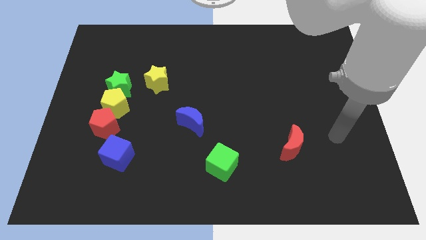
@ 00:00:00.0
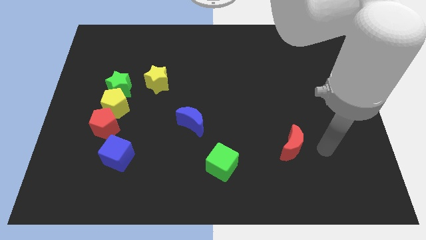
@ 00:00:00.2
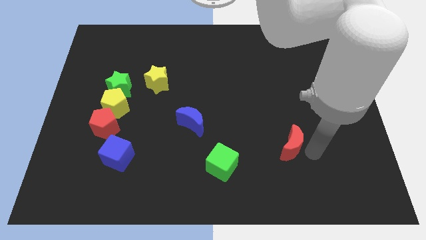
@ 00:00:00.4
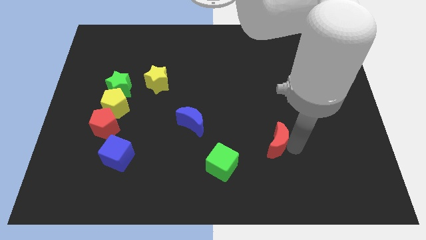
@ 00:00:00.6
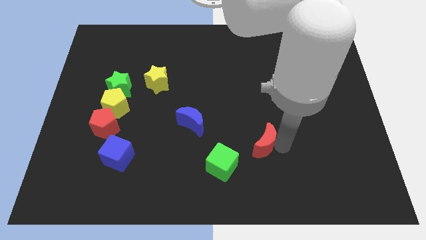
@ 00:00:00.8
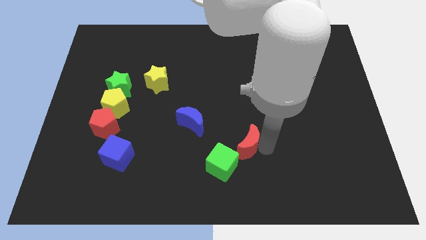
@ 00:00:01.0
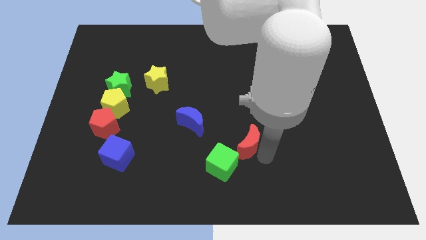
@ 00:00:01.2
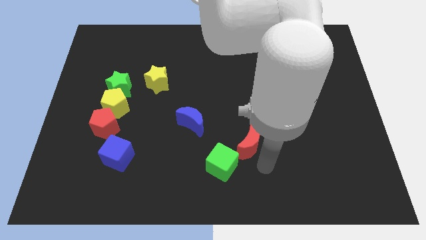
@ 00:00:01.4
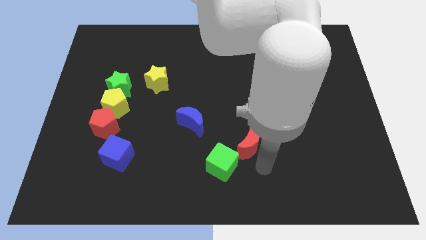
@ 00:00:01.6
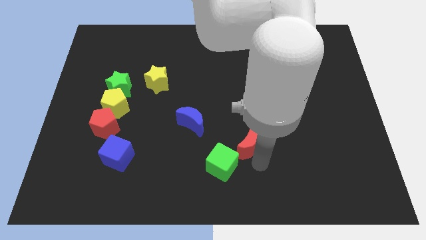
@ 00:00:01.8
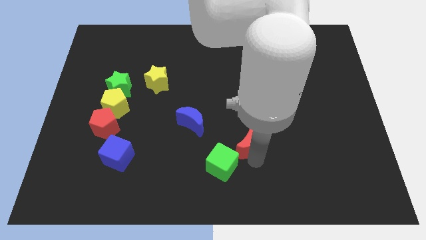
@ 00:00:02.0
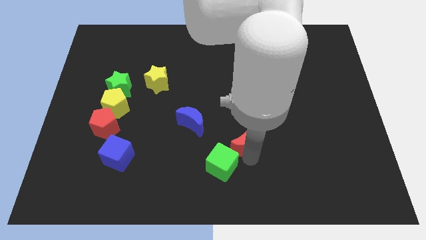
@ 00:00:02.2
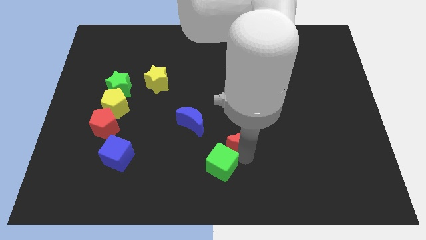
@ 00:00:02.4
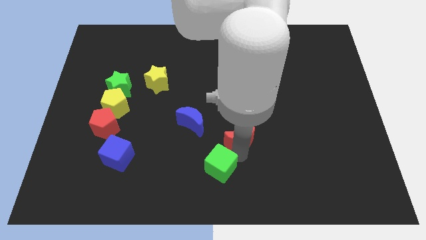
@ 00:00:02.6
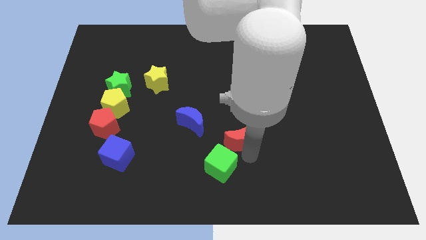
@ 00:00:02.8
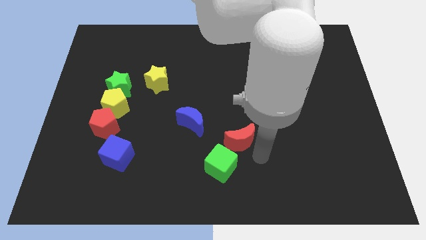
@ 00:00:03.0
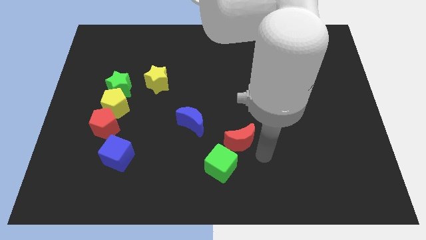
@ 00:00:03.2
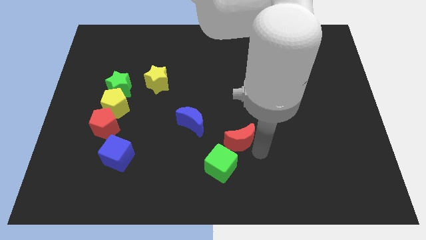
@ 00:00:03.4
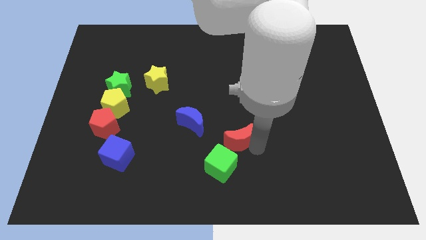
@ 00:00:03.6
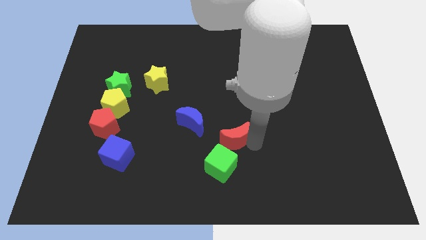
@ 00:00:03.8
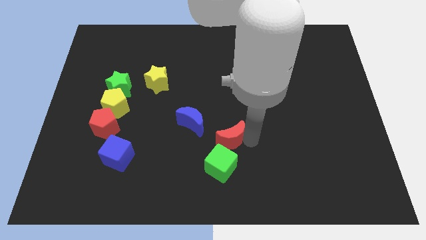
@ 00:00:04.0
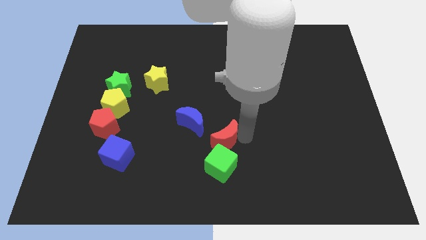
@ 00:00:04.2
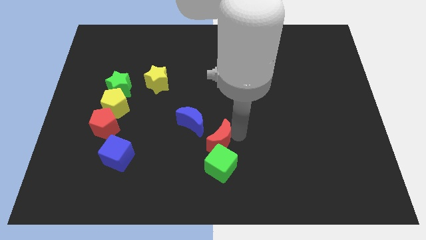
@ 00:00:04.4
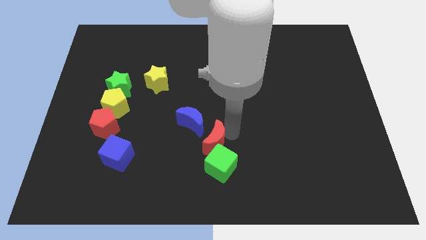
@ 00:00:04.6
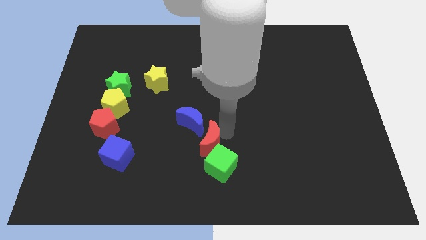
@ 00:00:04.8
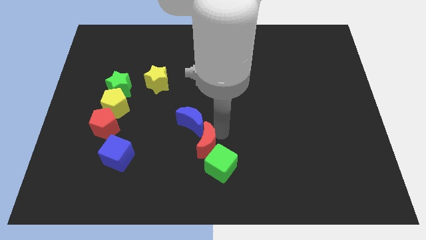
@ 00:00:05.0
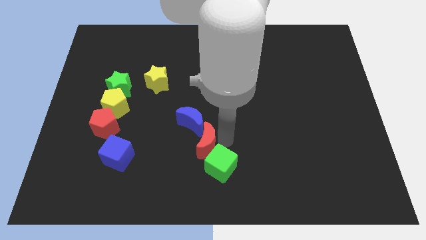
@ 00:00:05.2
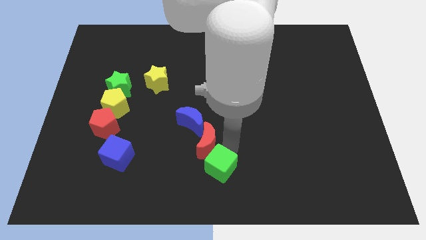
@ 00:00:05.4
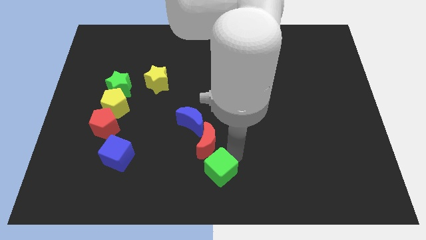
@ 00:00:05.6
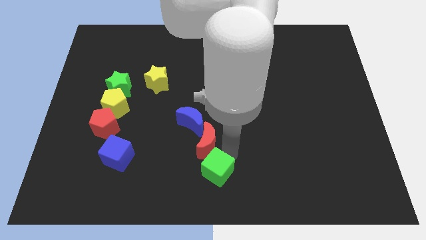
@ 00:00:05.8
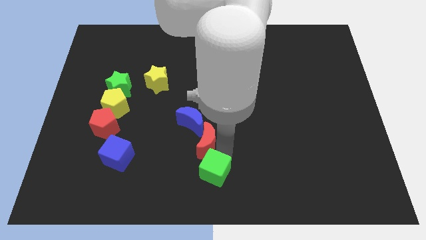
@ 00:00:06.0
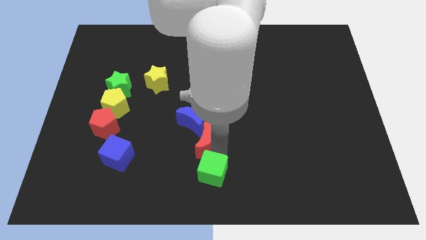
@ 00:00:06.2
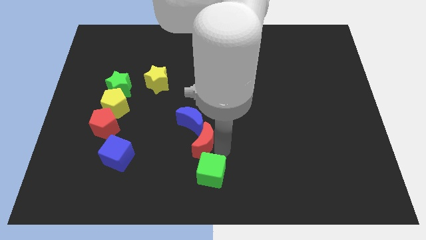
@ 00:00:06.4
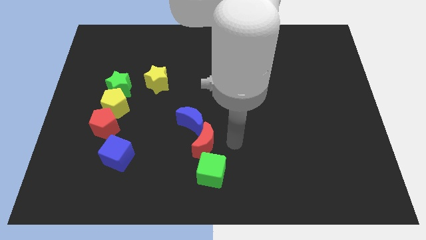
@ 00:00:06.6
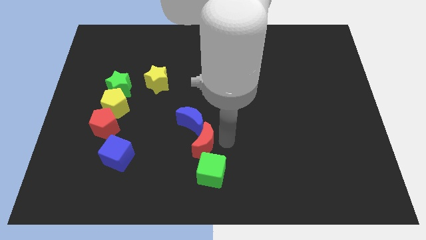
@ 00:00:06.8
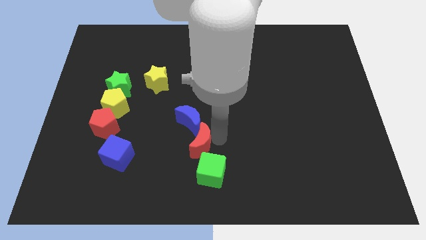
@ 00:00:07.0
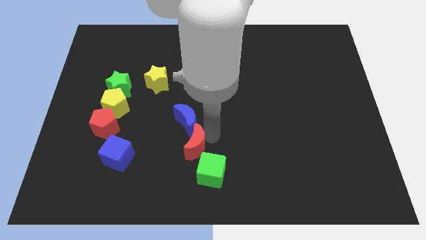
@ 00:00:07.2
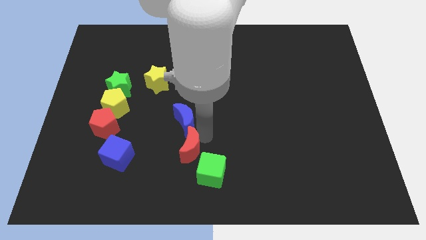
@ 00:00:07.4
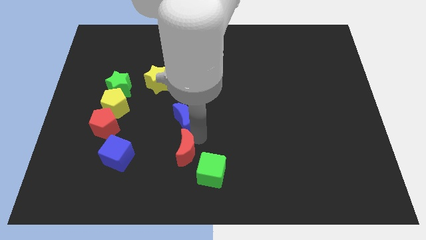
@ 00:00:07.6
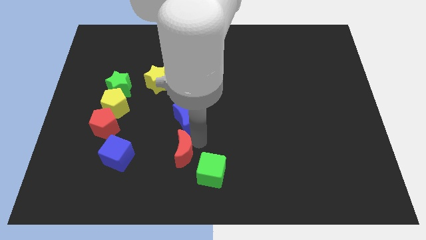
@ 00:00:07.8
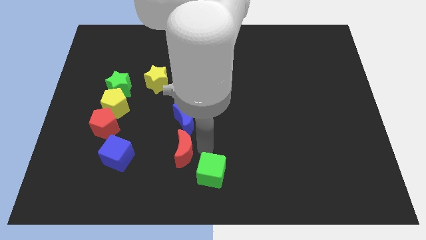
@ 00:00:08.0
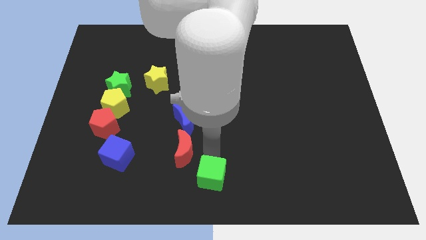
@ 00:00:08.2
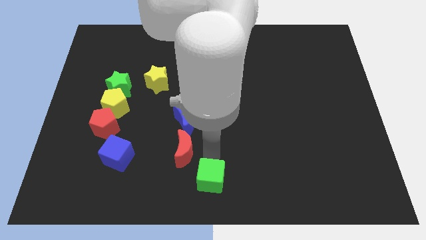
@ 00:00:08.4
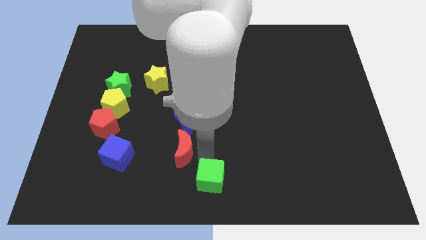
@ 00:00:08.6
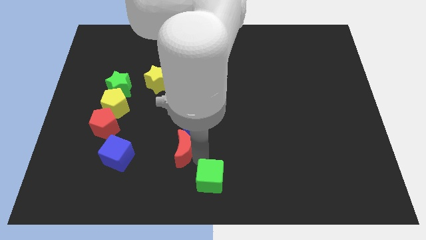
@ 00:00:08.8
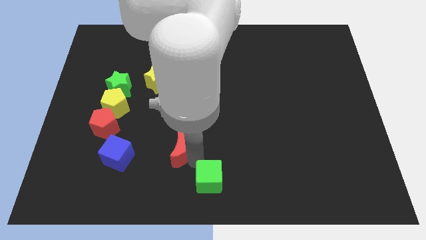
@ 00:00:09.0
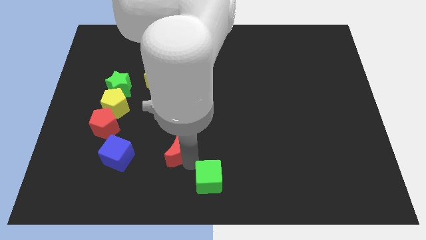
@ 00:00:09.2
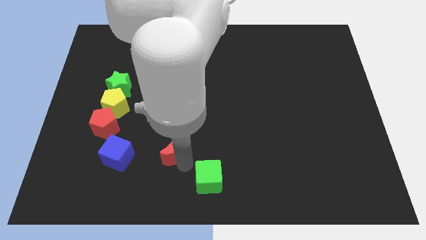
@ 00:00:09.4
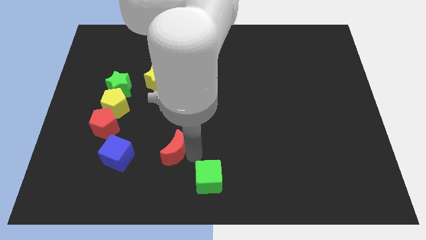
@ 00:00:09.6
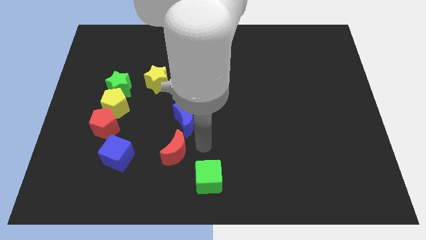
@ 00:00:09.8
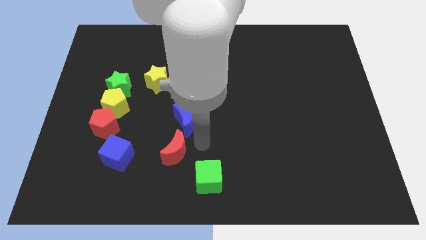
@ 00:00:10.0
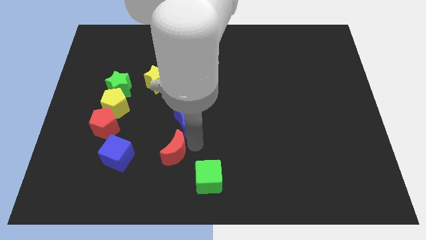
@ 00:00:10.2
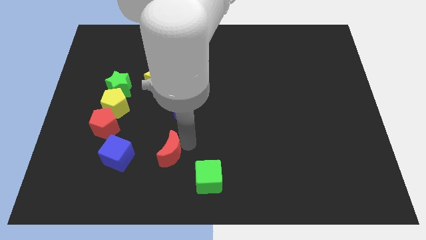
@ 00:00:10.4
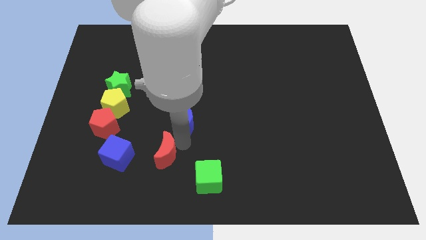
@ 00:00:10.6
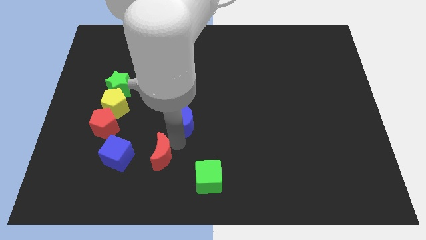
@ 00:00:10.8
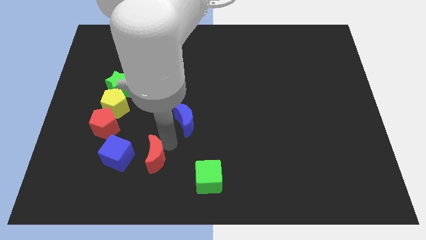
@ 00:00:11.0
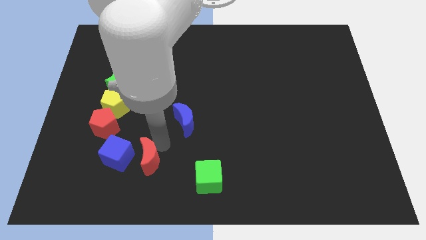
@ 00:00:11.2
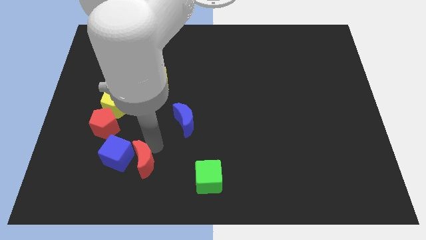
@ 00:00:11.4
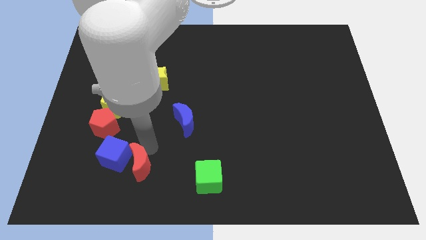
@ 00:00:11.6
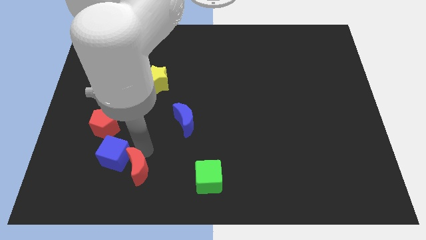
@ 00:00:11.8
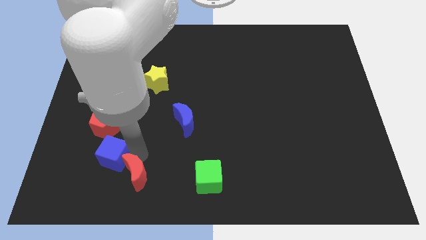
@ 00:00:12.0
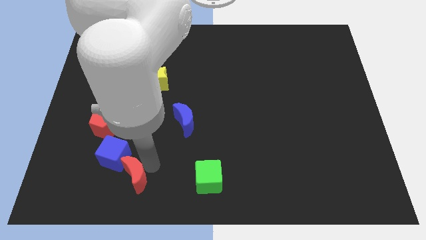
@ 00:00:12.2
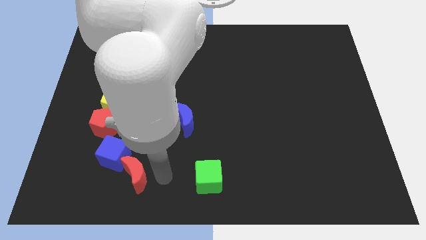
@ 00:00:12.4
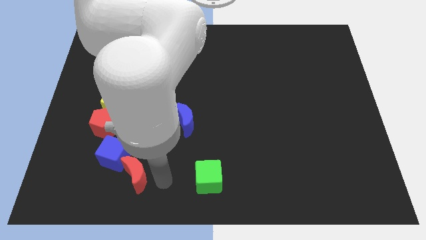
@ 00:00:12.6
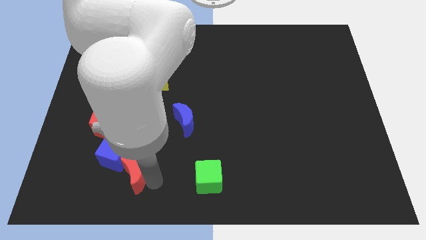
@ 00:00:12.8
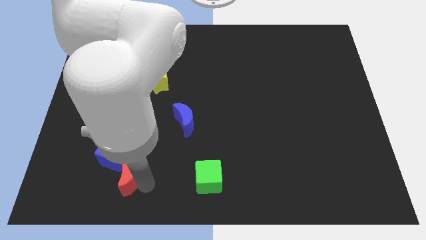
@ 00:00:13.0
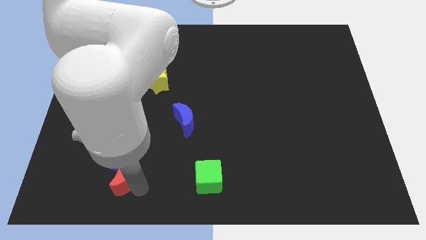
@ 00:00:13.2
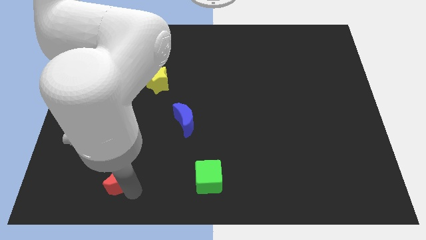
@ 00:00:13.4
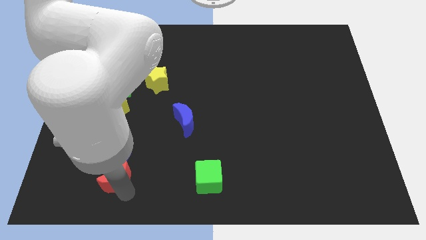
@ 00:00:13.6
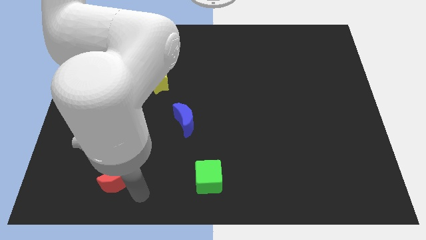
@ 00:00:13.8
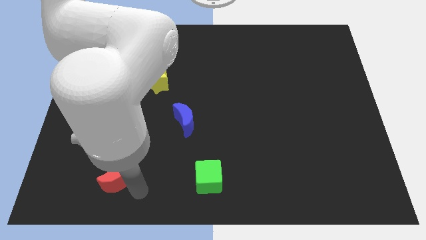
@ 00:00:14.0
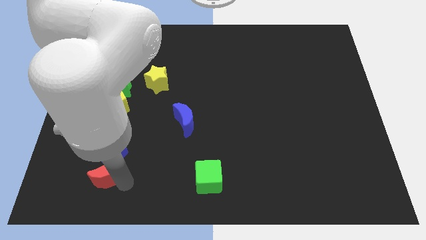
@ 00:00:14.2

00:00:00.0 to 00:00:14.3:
push the red moon below the red pentagon
